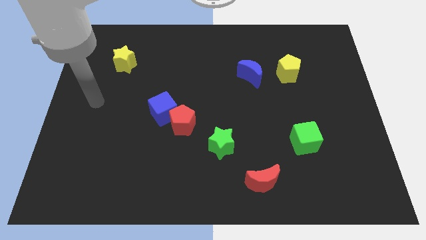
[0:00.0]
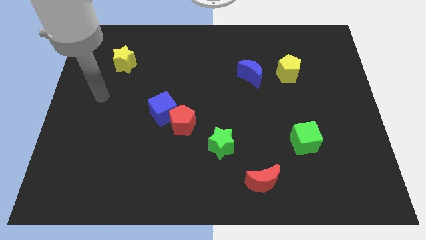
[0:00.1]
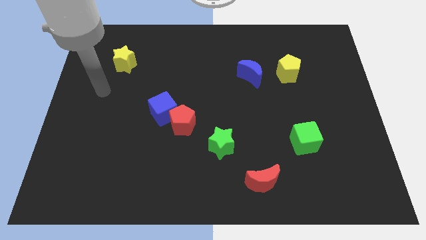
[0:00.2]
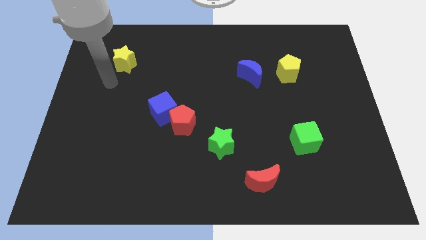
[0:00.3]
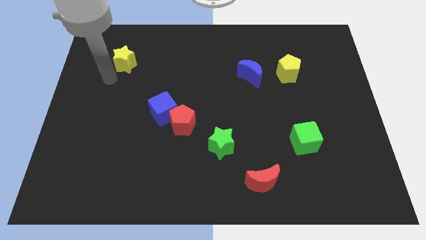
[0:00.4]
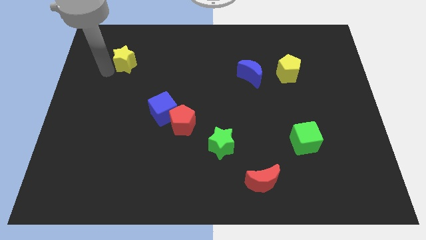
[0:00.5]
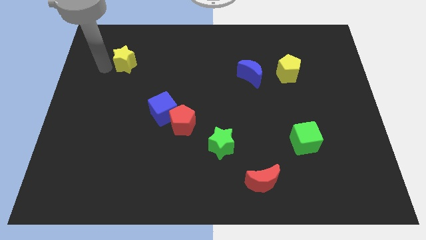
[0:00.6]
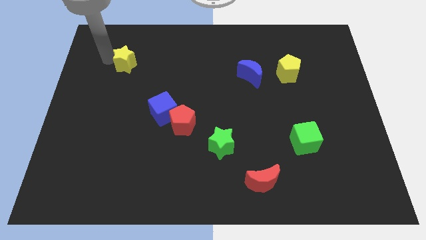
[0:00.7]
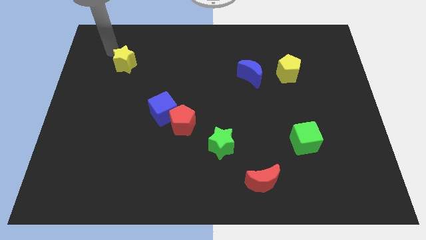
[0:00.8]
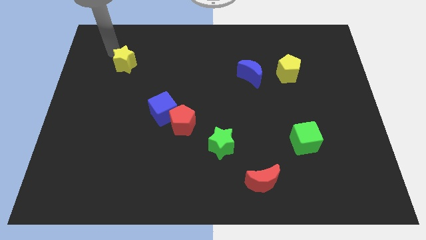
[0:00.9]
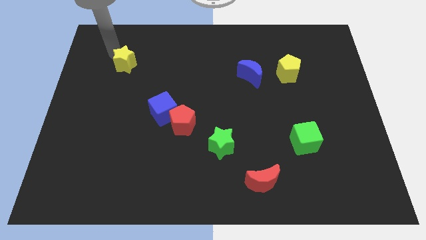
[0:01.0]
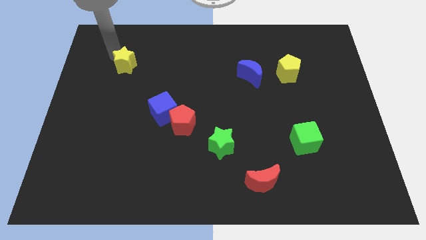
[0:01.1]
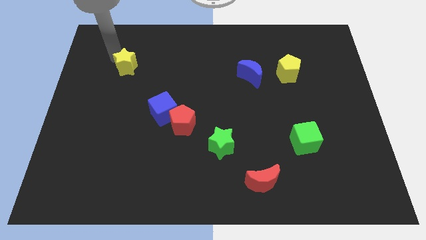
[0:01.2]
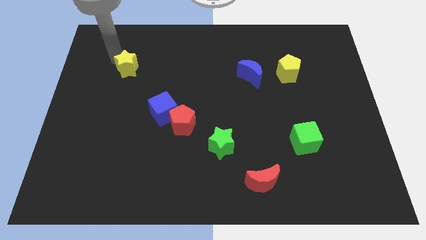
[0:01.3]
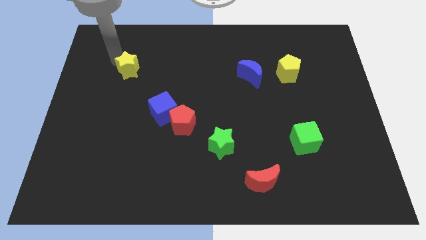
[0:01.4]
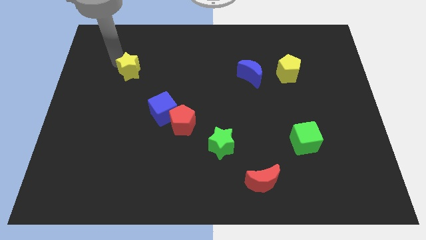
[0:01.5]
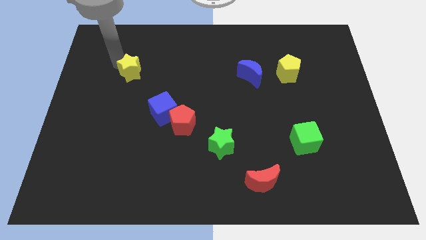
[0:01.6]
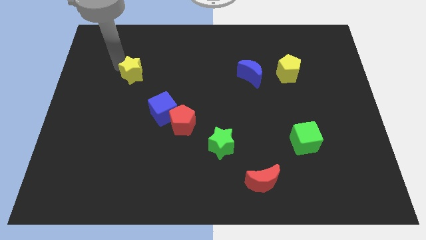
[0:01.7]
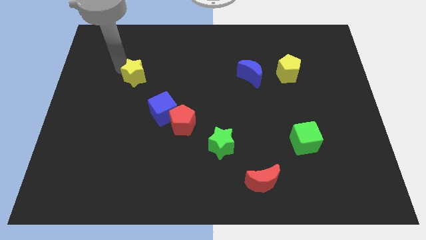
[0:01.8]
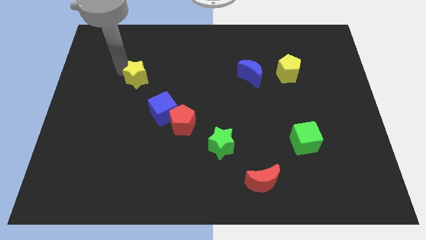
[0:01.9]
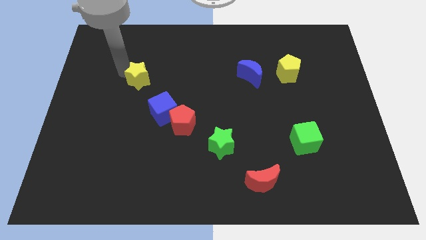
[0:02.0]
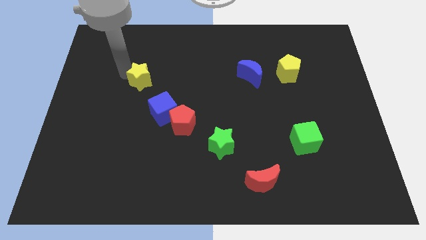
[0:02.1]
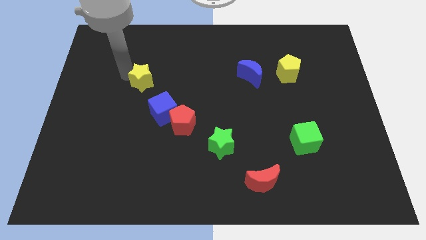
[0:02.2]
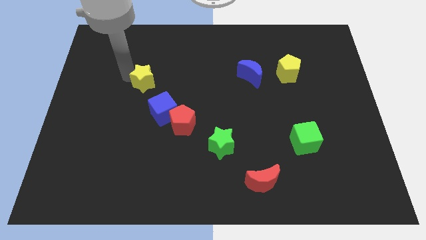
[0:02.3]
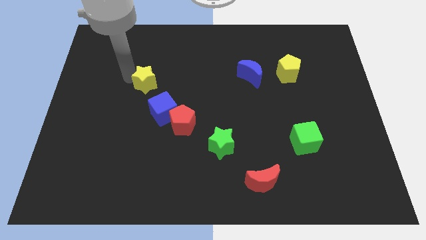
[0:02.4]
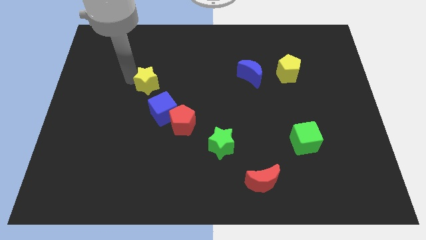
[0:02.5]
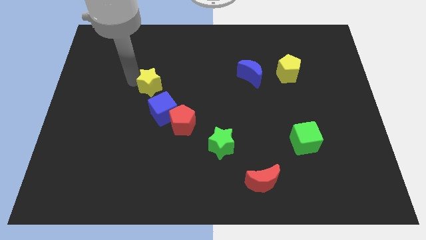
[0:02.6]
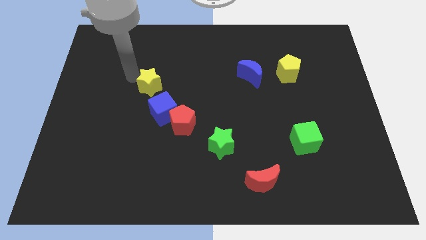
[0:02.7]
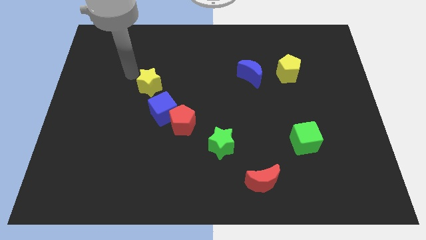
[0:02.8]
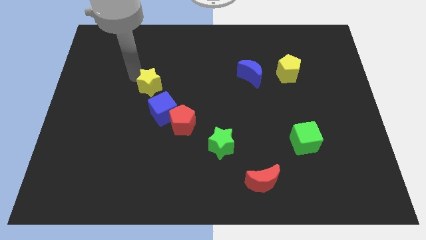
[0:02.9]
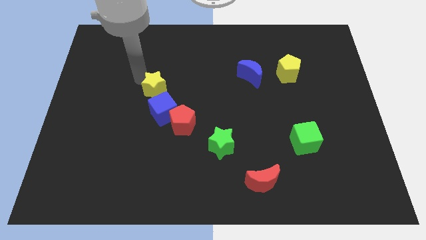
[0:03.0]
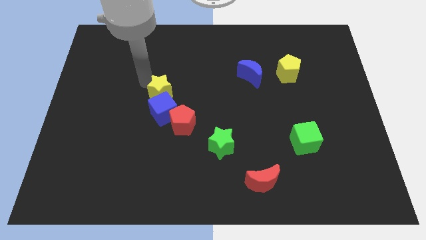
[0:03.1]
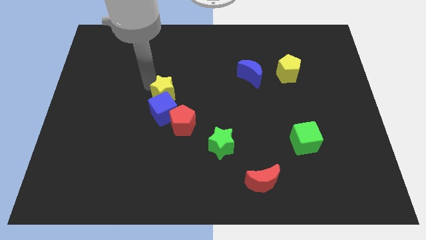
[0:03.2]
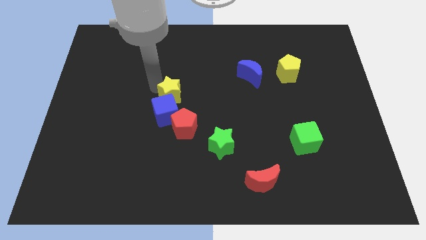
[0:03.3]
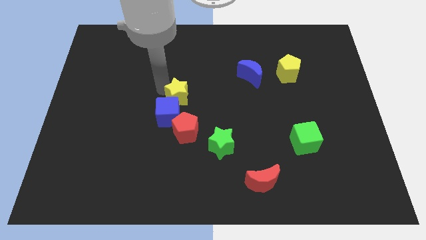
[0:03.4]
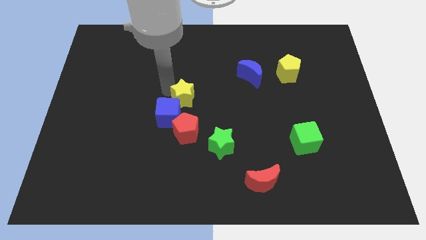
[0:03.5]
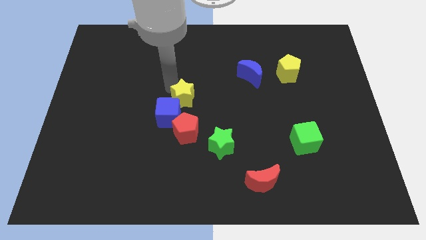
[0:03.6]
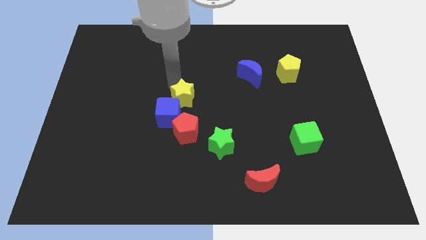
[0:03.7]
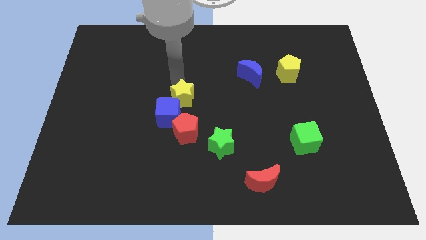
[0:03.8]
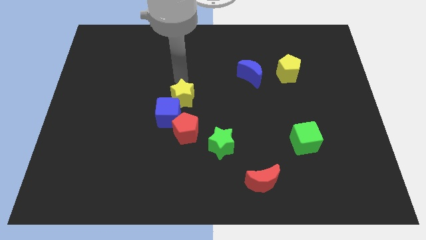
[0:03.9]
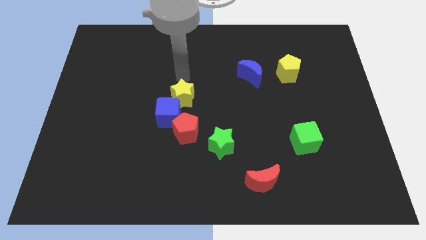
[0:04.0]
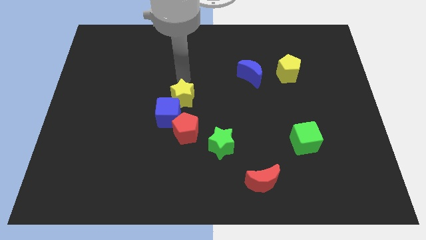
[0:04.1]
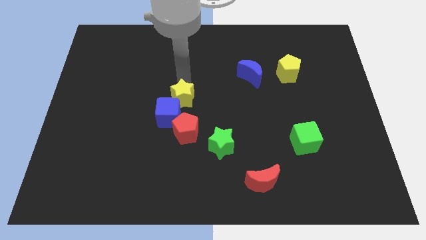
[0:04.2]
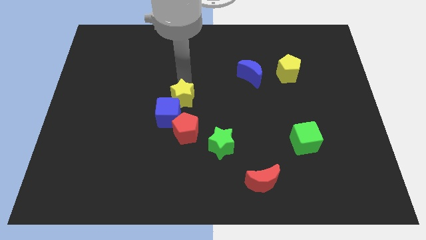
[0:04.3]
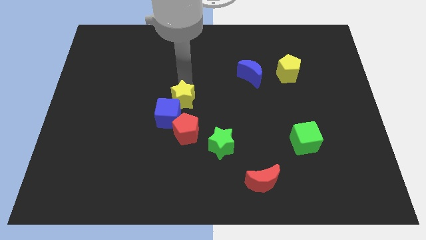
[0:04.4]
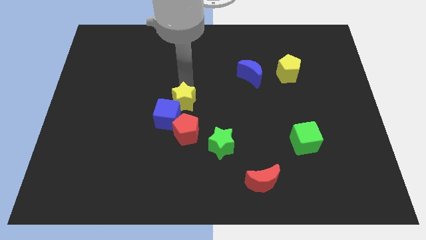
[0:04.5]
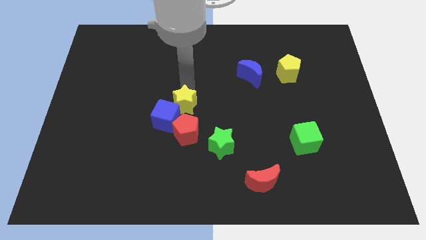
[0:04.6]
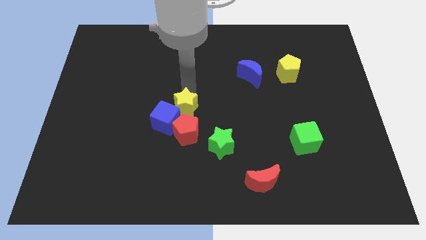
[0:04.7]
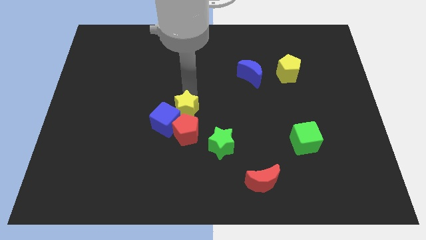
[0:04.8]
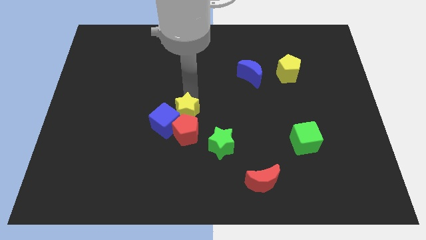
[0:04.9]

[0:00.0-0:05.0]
put the yellow star towards the red pentagon

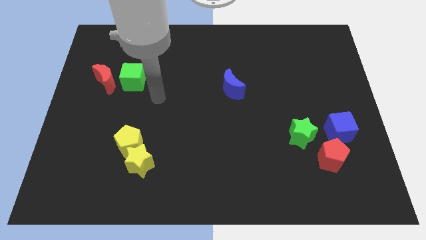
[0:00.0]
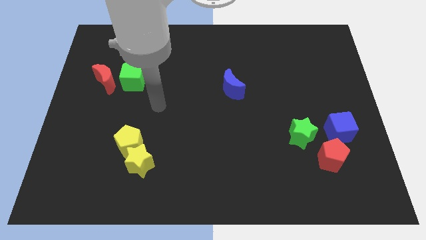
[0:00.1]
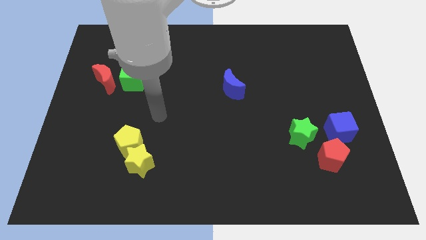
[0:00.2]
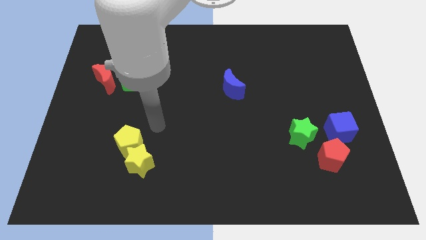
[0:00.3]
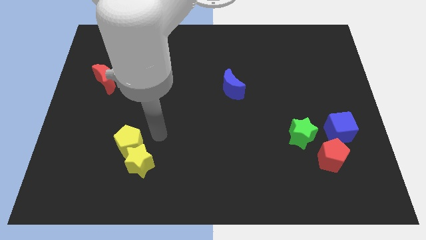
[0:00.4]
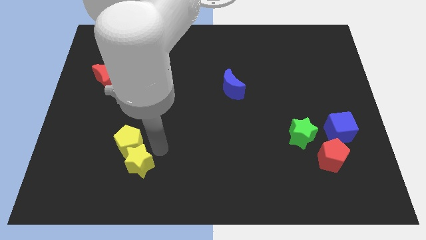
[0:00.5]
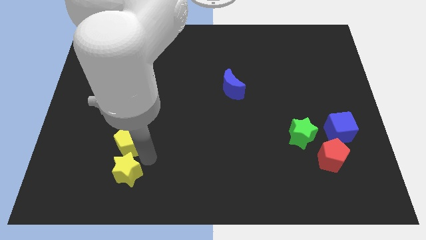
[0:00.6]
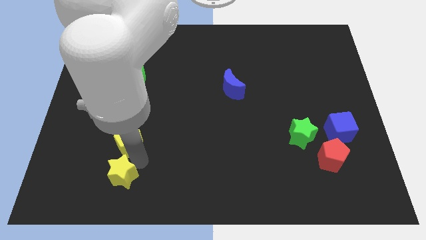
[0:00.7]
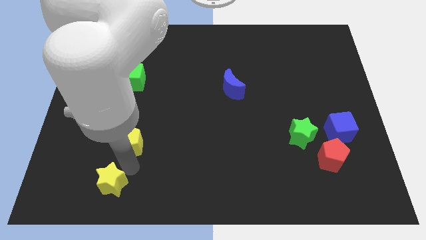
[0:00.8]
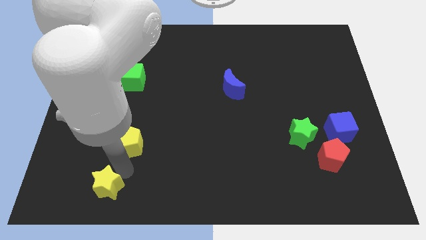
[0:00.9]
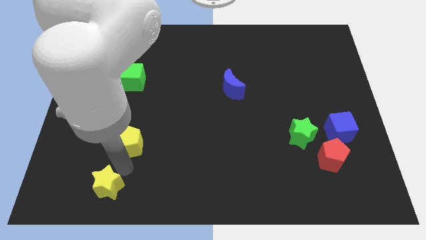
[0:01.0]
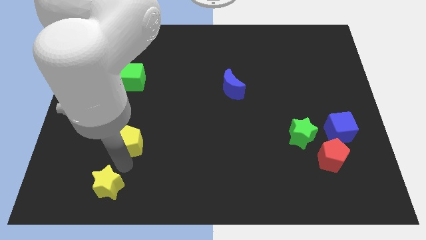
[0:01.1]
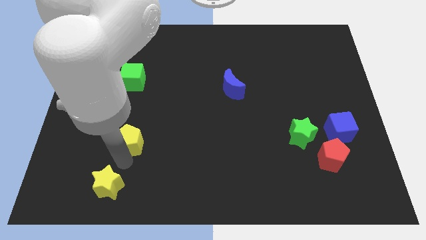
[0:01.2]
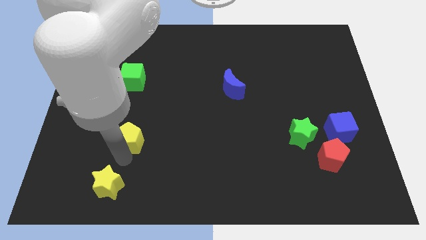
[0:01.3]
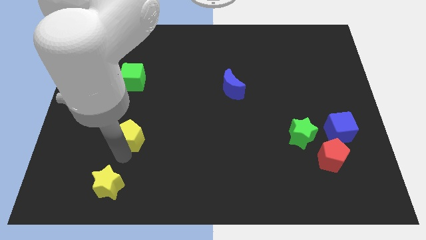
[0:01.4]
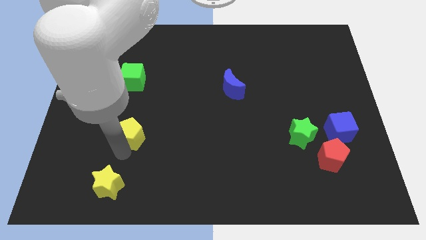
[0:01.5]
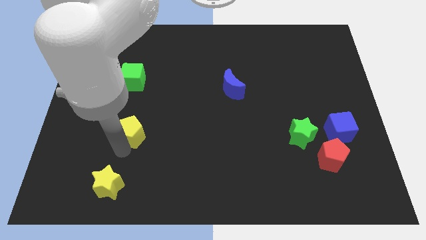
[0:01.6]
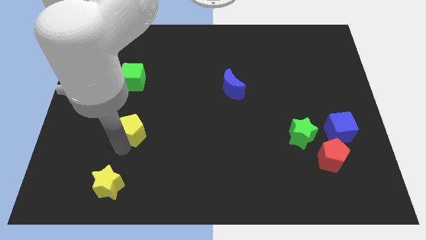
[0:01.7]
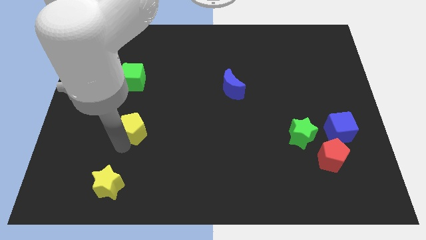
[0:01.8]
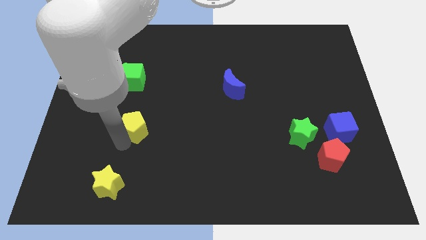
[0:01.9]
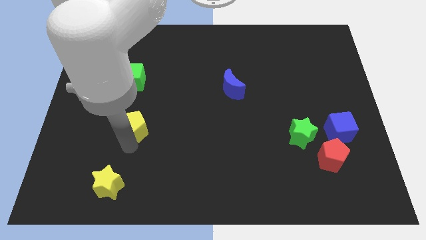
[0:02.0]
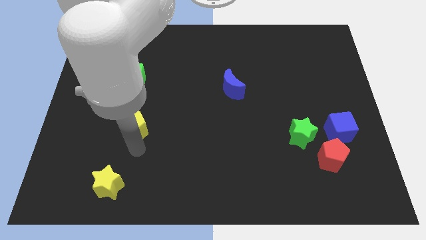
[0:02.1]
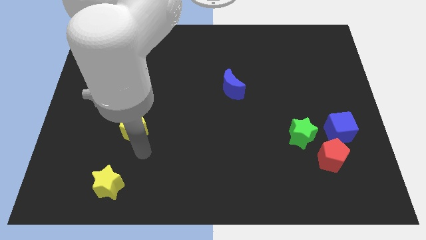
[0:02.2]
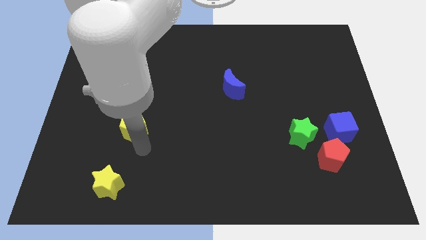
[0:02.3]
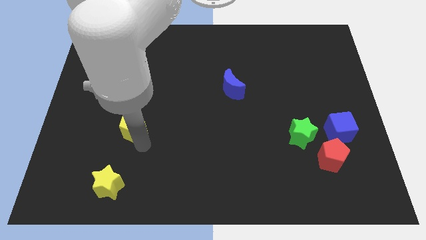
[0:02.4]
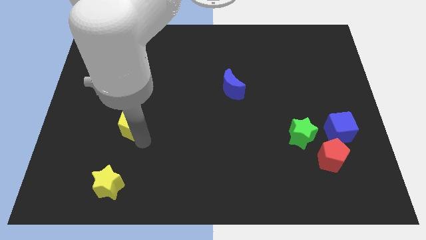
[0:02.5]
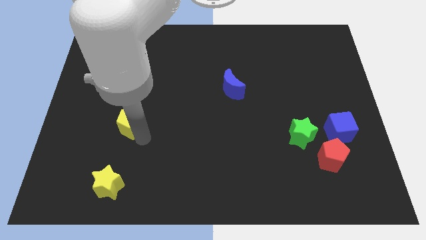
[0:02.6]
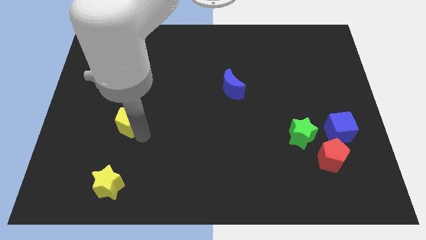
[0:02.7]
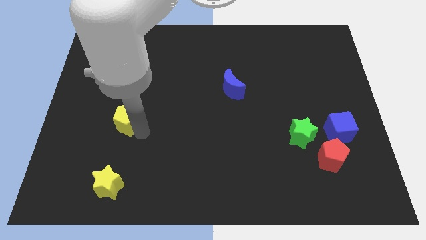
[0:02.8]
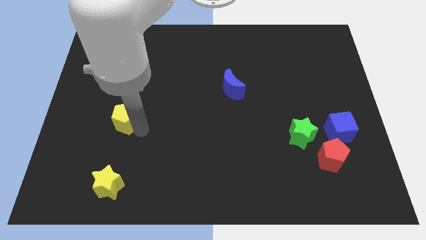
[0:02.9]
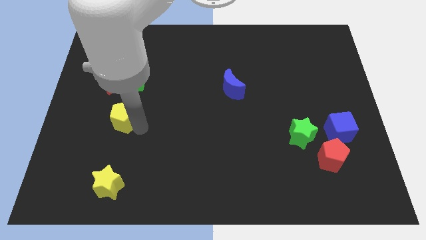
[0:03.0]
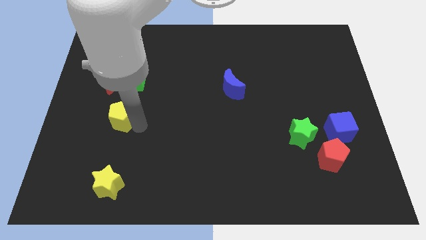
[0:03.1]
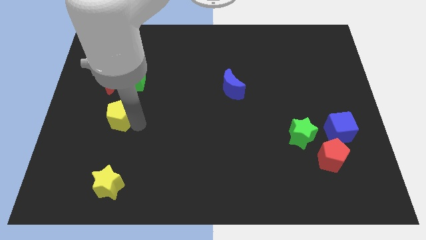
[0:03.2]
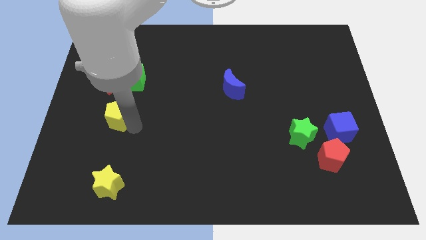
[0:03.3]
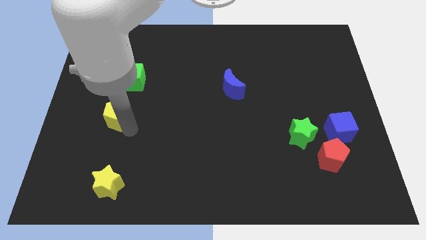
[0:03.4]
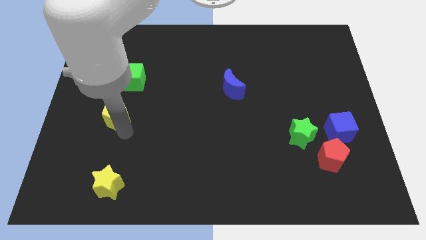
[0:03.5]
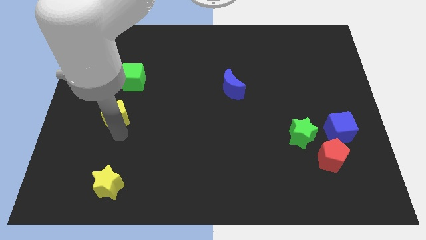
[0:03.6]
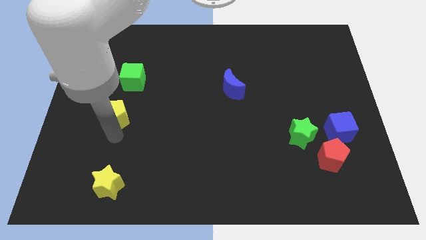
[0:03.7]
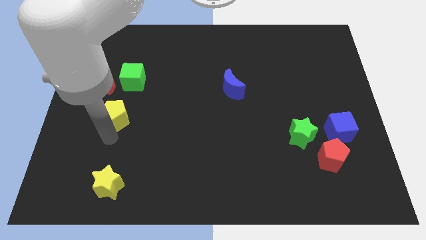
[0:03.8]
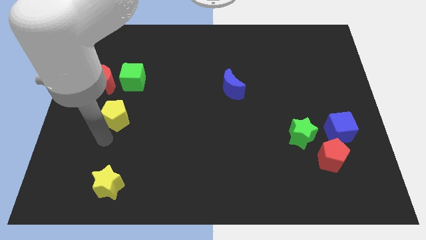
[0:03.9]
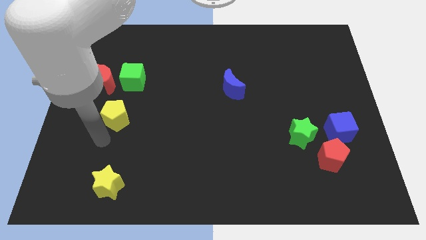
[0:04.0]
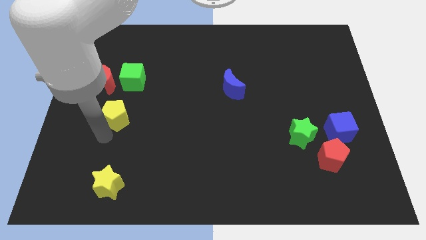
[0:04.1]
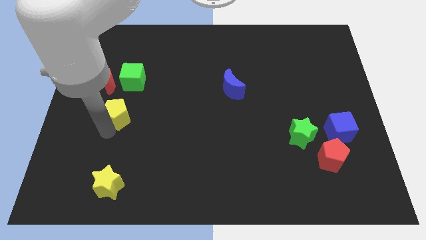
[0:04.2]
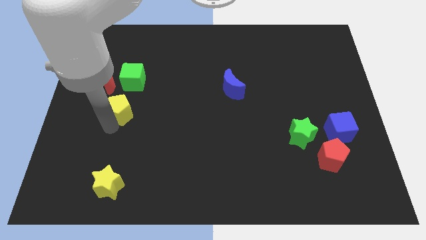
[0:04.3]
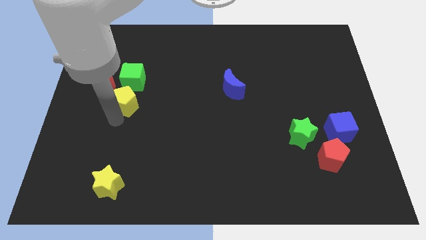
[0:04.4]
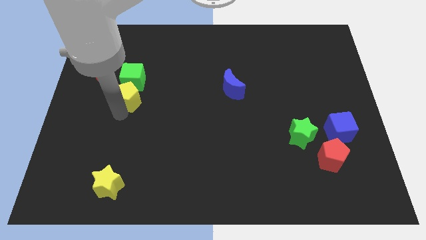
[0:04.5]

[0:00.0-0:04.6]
push the yellow pentagon towards the green cube
